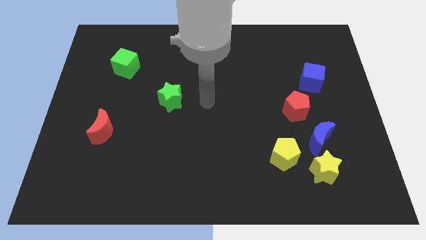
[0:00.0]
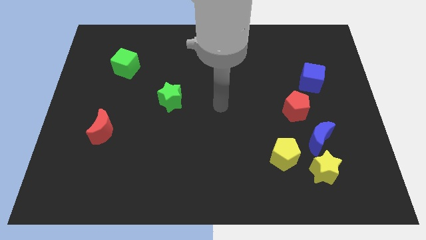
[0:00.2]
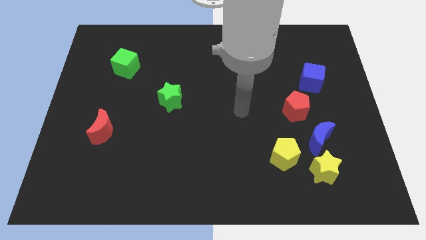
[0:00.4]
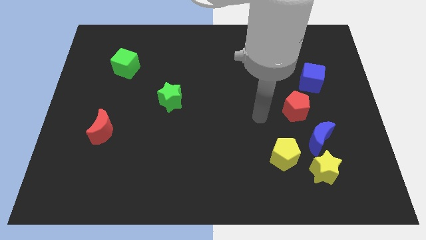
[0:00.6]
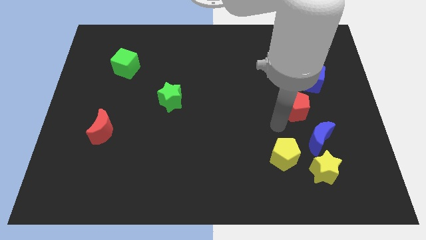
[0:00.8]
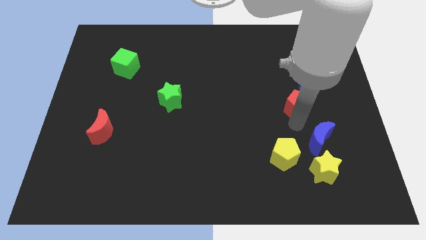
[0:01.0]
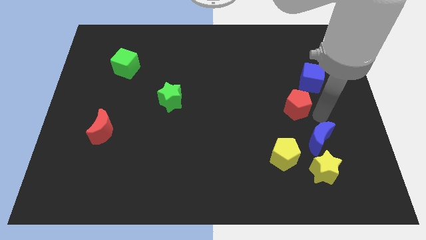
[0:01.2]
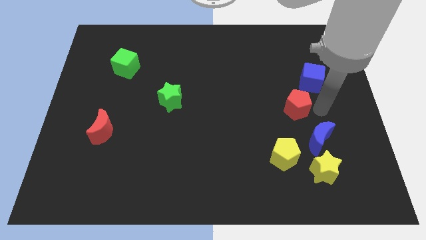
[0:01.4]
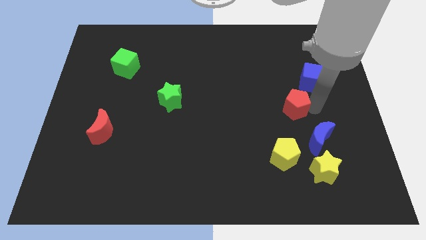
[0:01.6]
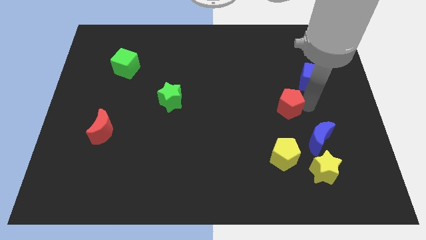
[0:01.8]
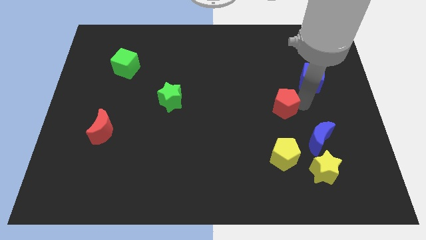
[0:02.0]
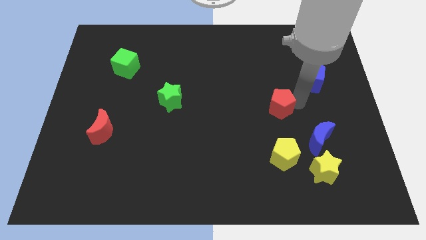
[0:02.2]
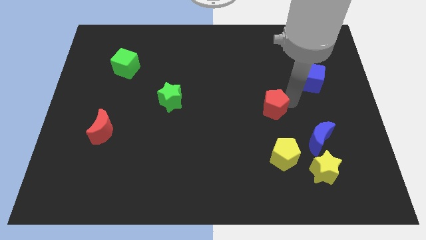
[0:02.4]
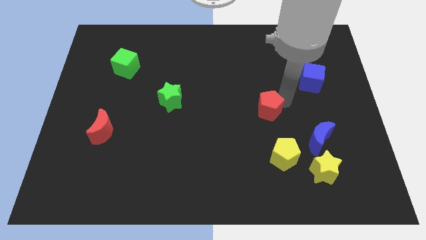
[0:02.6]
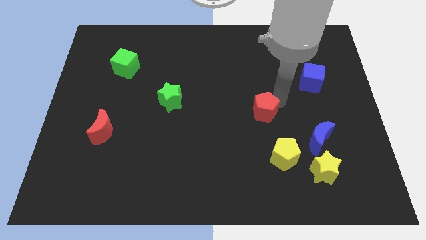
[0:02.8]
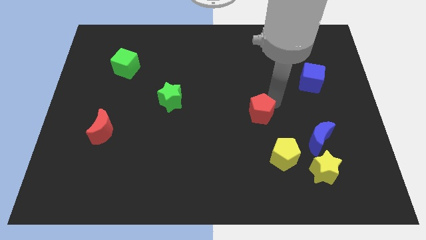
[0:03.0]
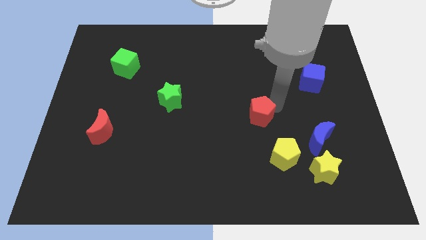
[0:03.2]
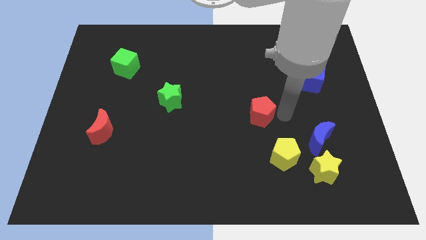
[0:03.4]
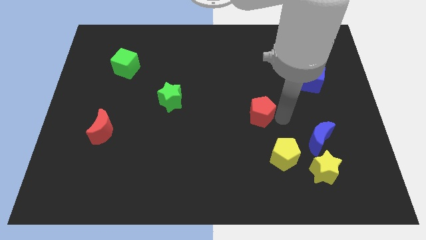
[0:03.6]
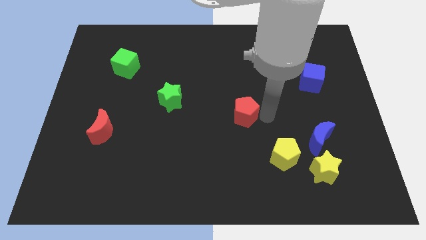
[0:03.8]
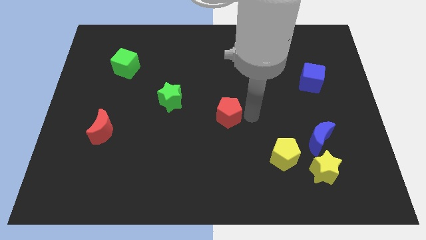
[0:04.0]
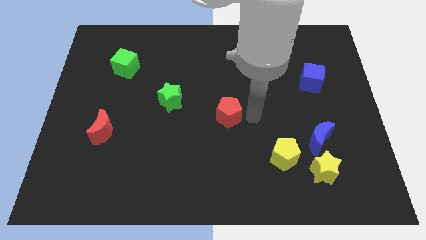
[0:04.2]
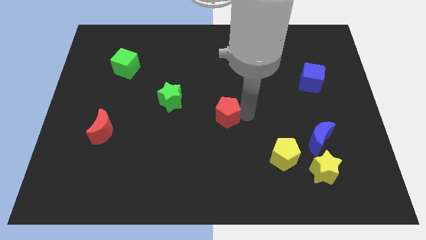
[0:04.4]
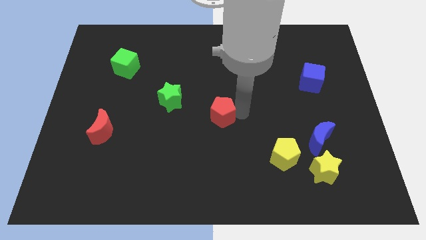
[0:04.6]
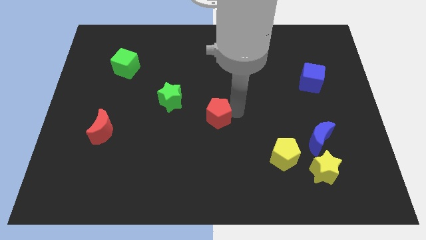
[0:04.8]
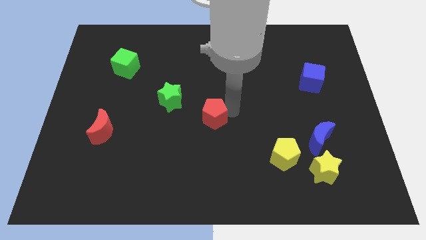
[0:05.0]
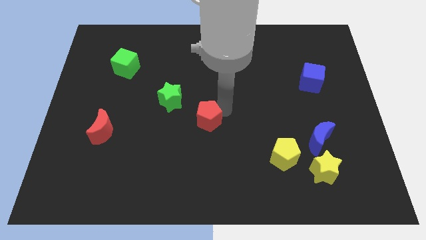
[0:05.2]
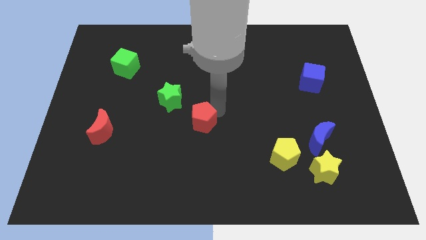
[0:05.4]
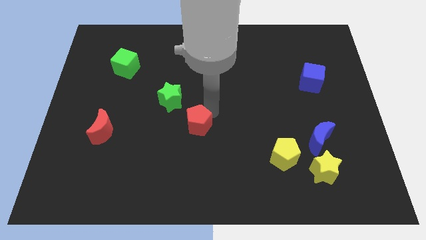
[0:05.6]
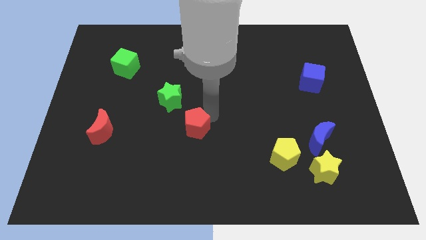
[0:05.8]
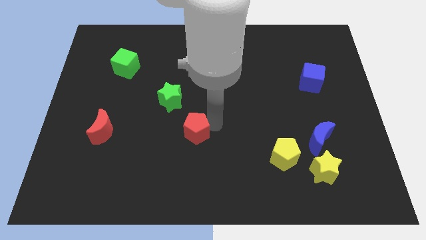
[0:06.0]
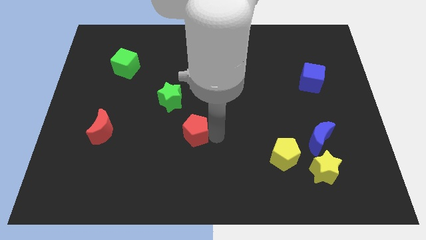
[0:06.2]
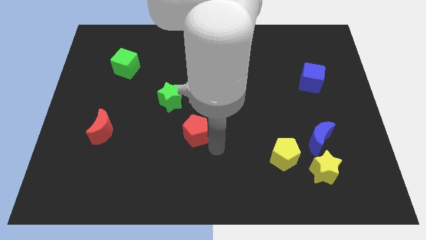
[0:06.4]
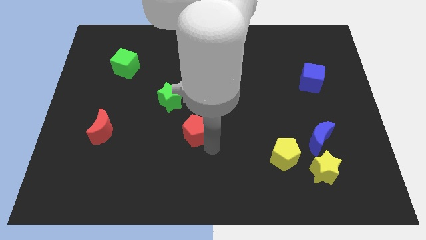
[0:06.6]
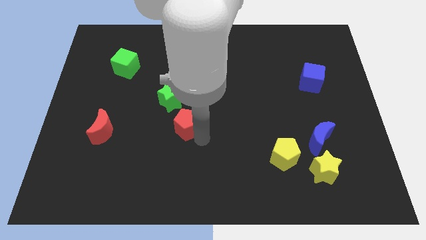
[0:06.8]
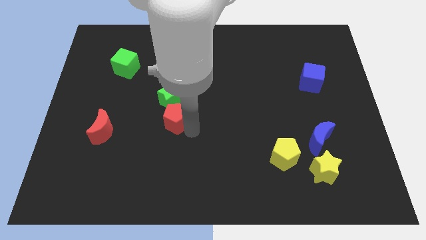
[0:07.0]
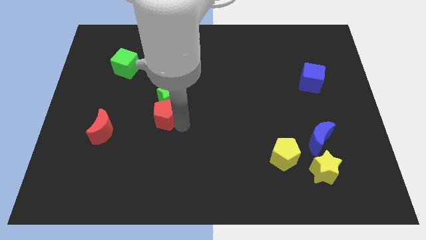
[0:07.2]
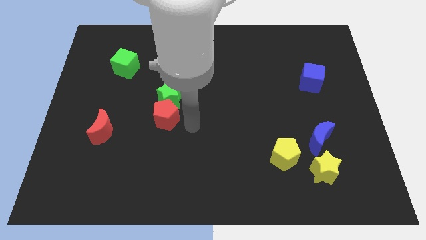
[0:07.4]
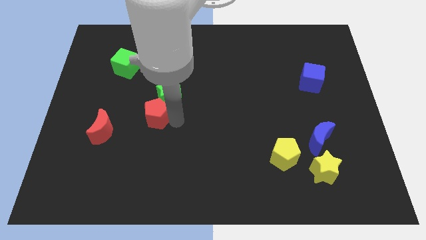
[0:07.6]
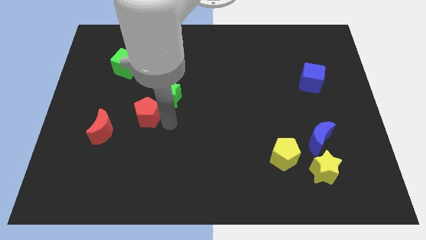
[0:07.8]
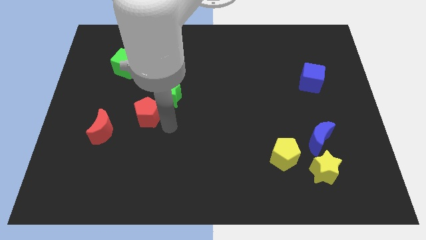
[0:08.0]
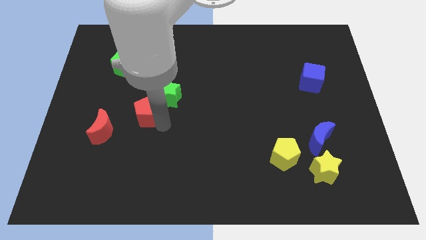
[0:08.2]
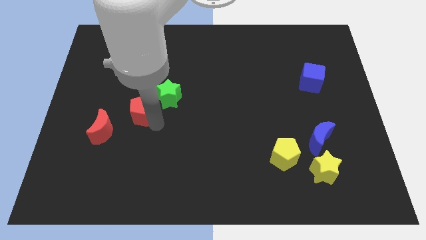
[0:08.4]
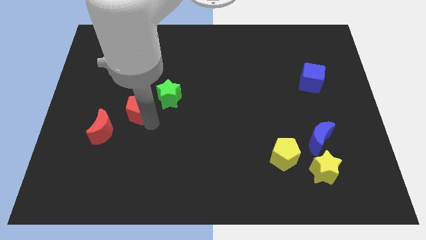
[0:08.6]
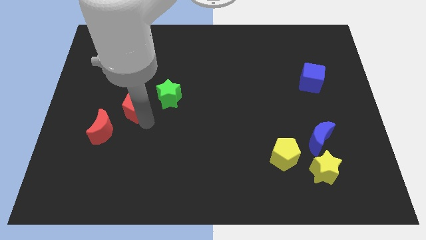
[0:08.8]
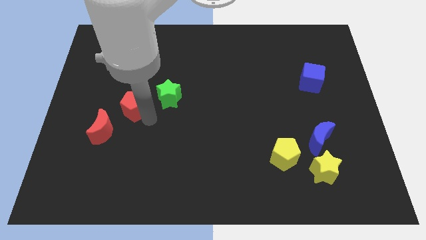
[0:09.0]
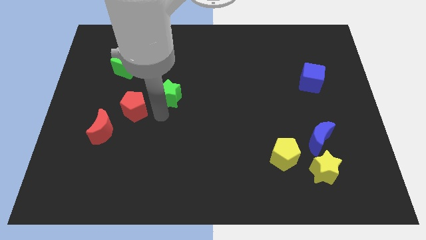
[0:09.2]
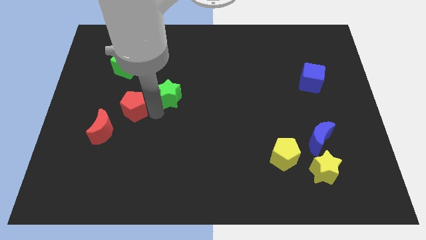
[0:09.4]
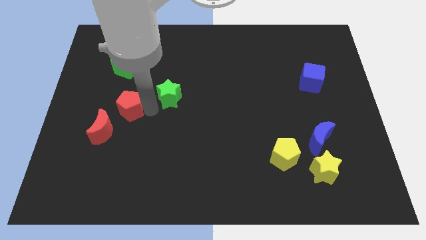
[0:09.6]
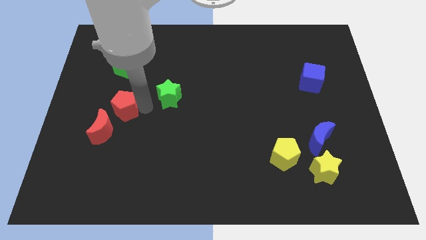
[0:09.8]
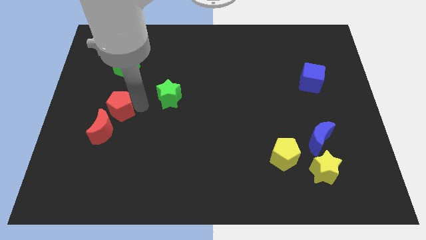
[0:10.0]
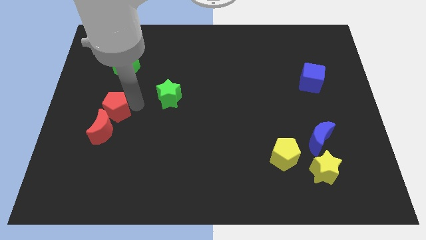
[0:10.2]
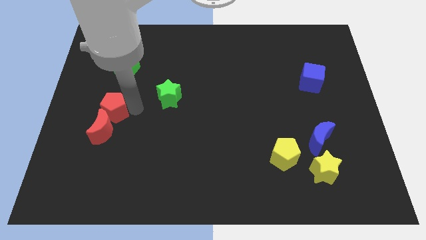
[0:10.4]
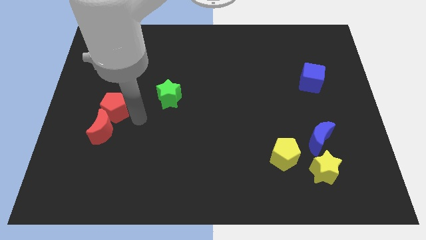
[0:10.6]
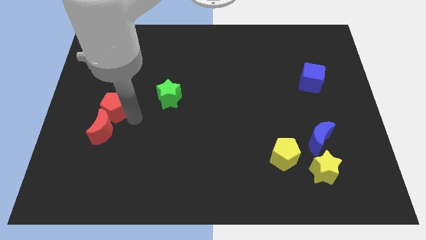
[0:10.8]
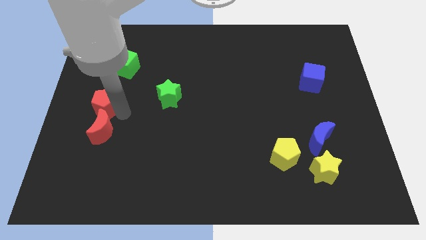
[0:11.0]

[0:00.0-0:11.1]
put the red pentagon to the center left
